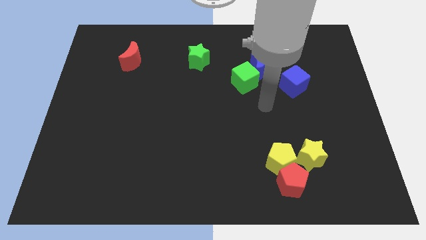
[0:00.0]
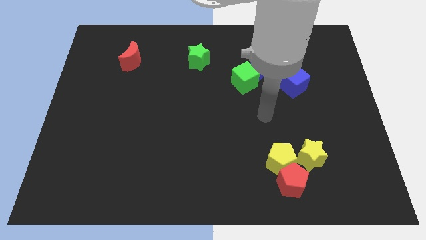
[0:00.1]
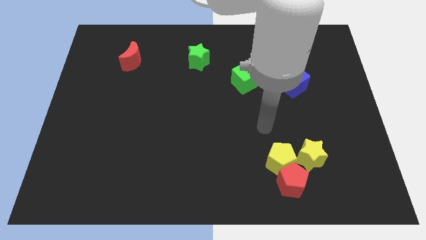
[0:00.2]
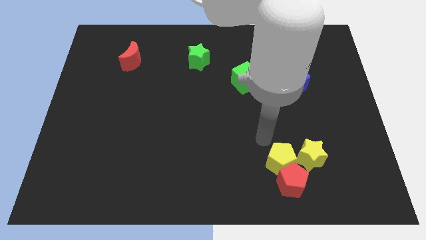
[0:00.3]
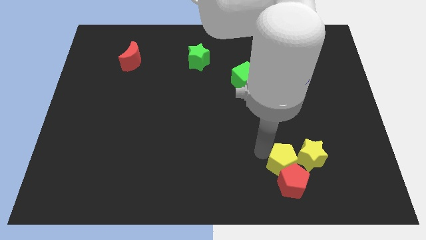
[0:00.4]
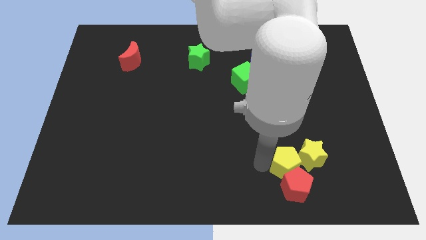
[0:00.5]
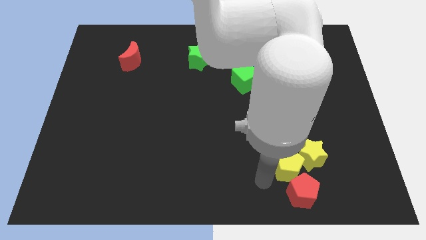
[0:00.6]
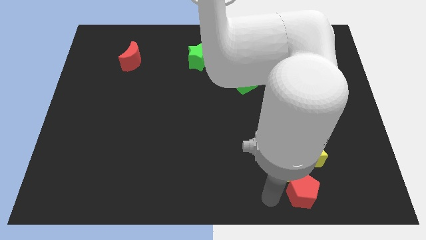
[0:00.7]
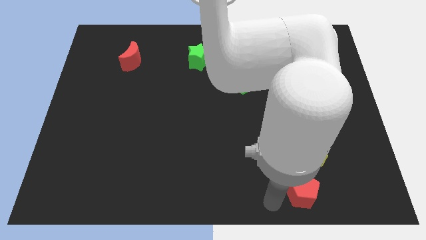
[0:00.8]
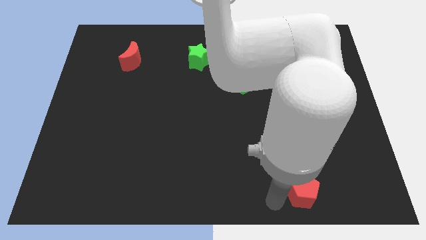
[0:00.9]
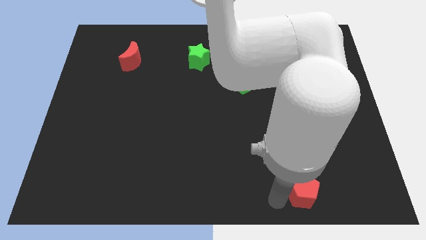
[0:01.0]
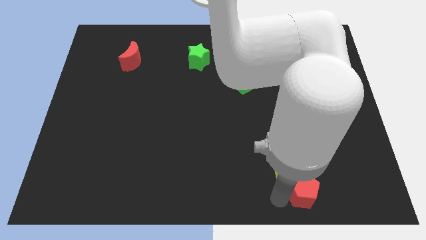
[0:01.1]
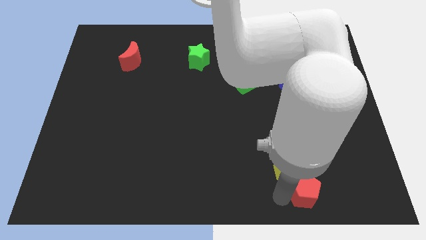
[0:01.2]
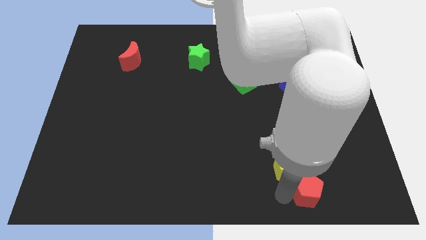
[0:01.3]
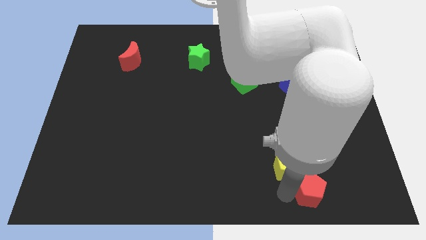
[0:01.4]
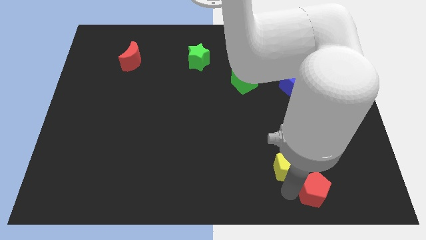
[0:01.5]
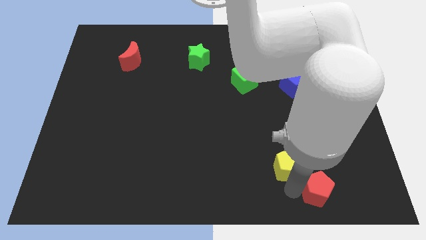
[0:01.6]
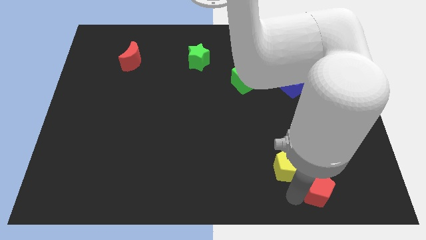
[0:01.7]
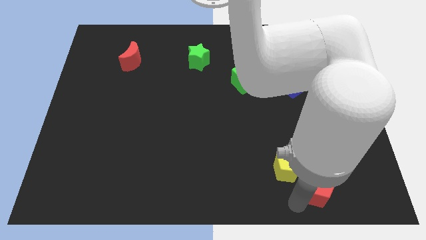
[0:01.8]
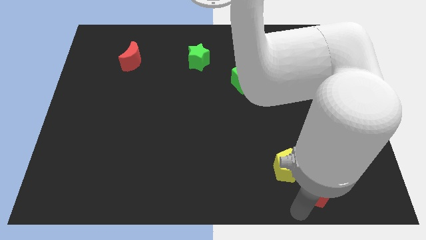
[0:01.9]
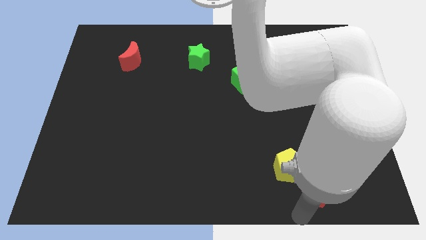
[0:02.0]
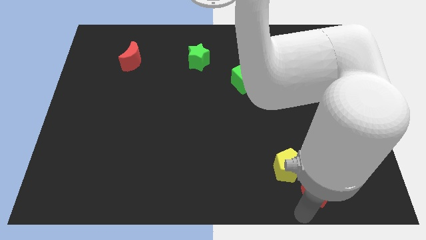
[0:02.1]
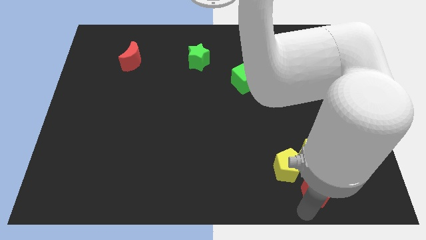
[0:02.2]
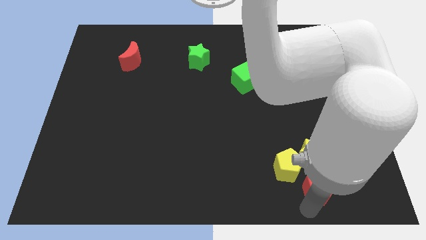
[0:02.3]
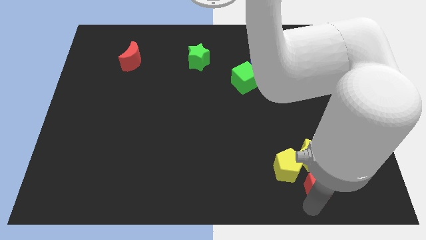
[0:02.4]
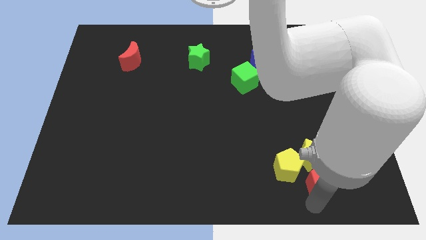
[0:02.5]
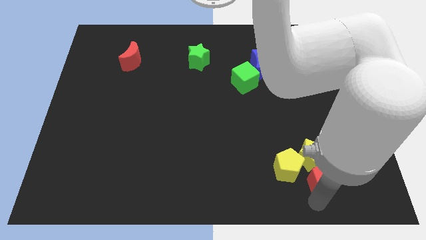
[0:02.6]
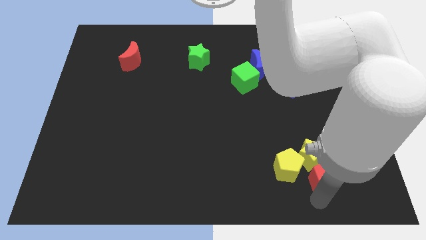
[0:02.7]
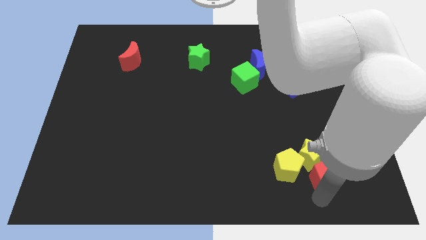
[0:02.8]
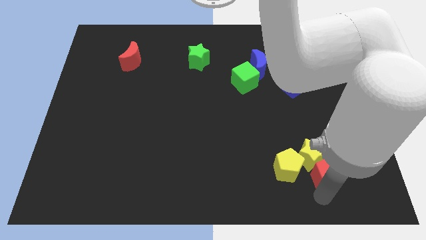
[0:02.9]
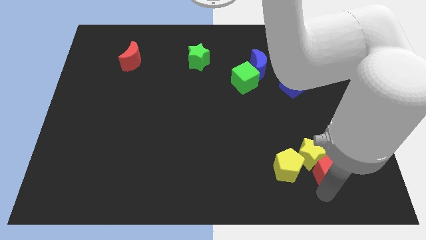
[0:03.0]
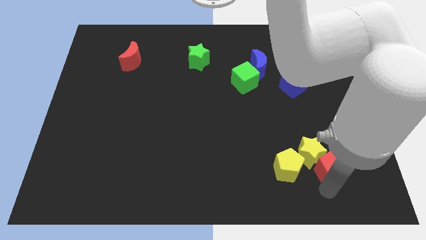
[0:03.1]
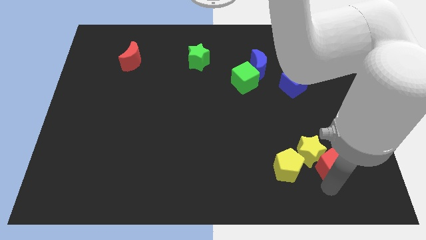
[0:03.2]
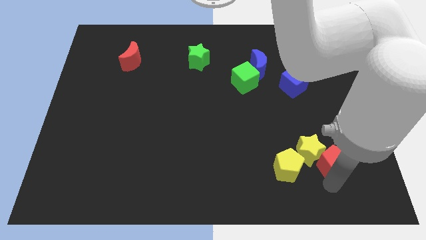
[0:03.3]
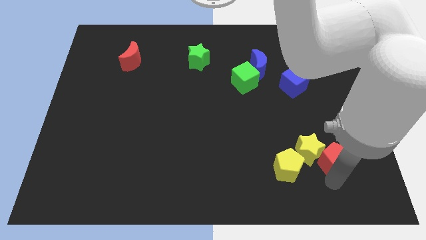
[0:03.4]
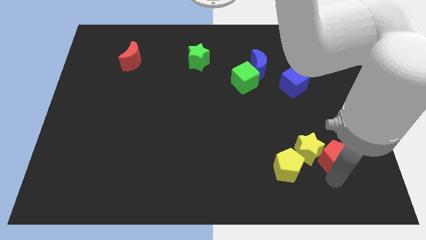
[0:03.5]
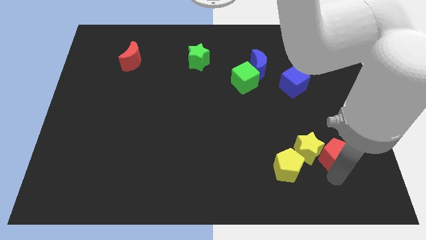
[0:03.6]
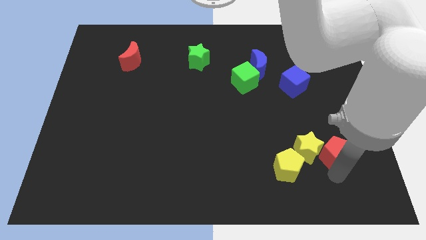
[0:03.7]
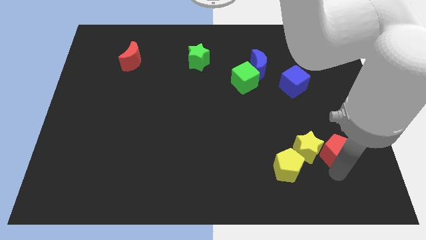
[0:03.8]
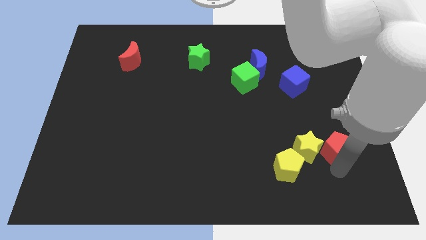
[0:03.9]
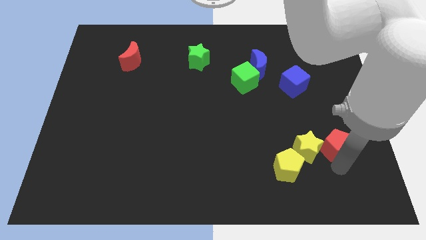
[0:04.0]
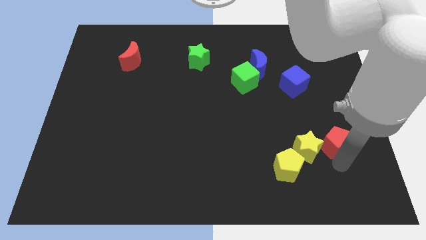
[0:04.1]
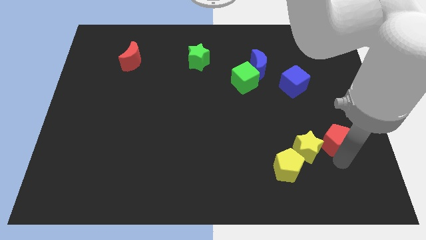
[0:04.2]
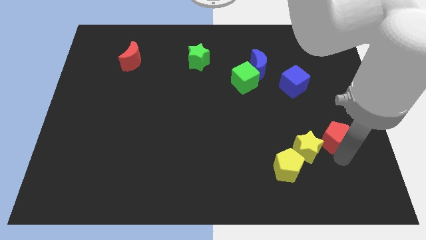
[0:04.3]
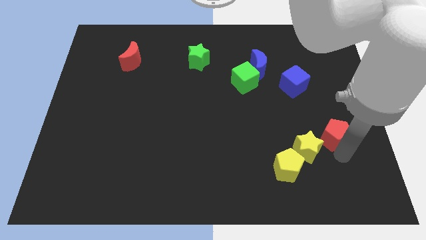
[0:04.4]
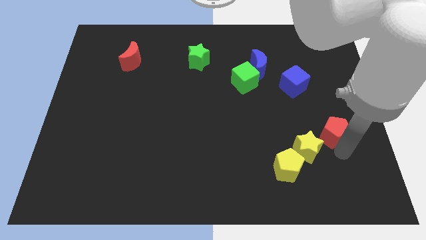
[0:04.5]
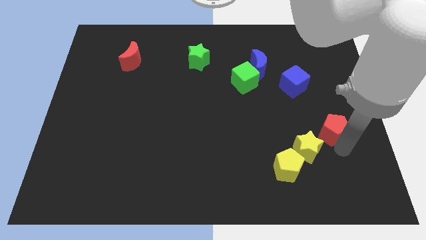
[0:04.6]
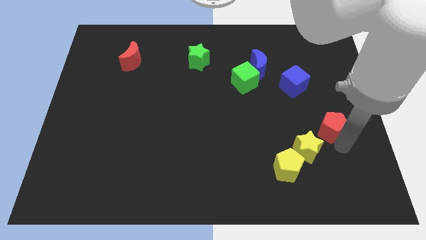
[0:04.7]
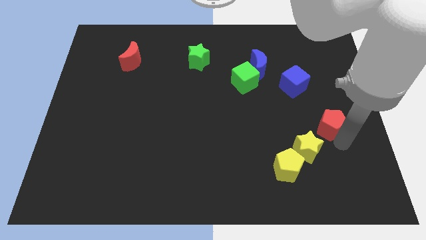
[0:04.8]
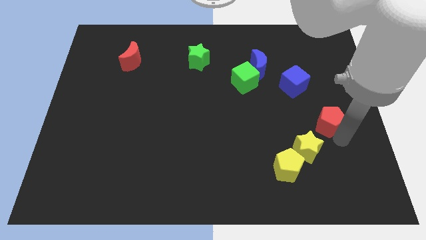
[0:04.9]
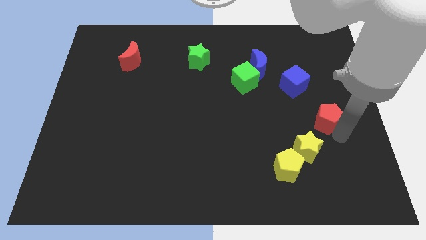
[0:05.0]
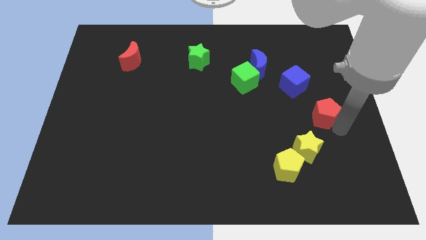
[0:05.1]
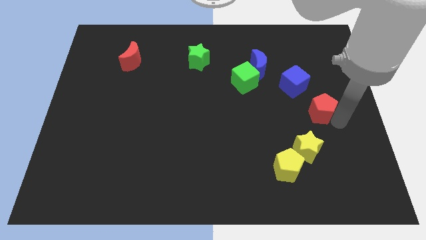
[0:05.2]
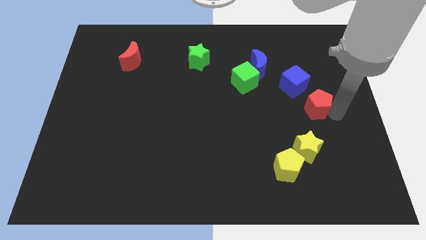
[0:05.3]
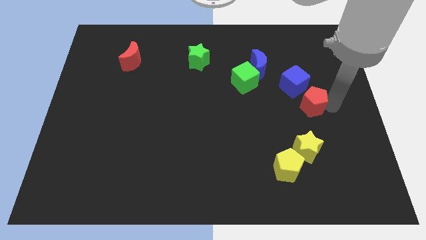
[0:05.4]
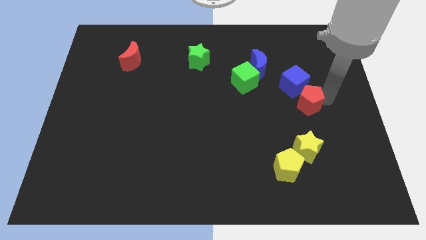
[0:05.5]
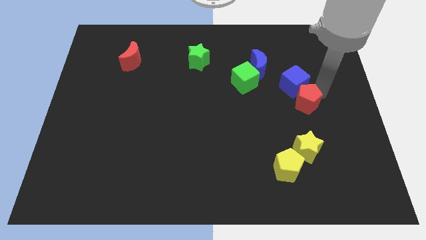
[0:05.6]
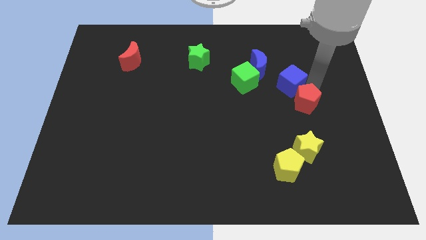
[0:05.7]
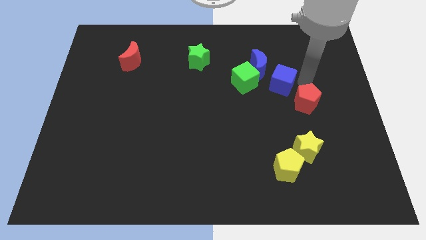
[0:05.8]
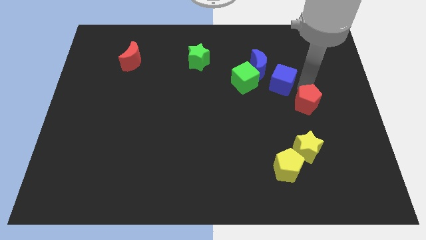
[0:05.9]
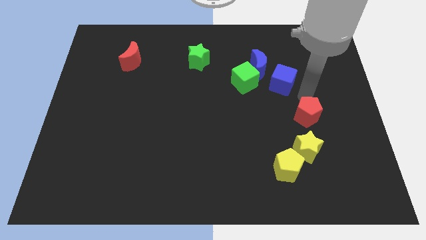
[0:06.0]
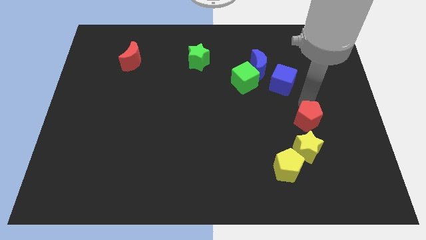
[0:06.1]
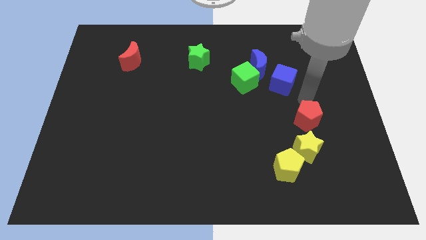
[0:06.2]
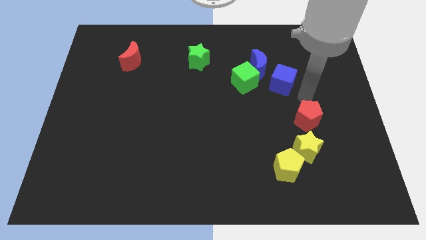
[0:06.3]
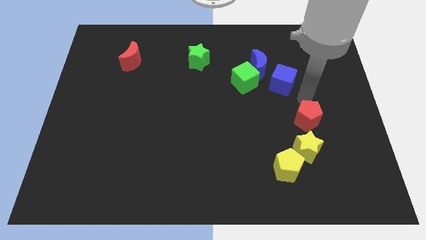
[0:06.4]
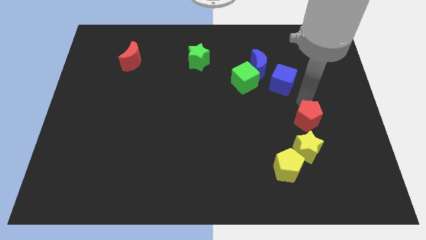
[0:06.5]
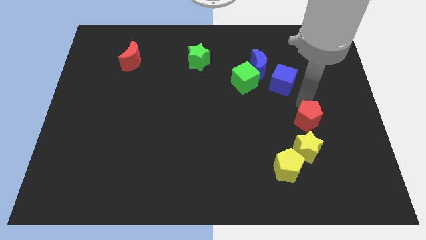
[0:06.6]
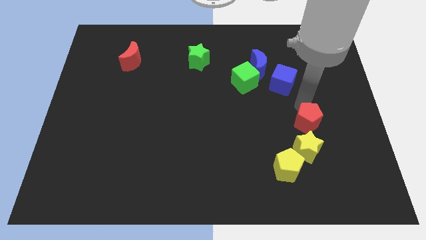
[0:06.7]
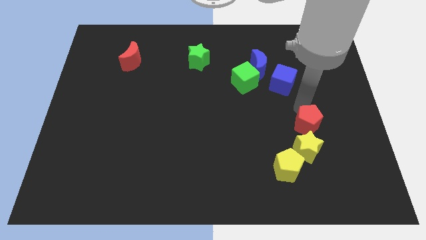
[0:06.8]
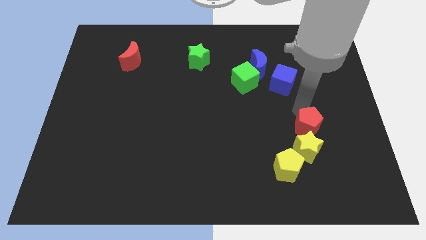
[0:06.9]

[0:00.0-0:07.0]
slide the red pentagon diagonally up and to the right of the yellow pentagon

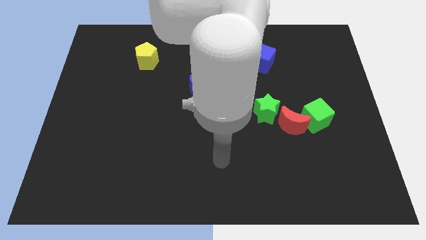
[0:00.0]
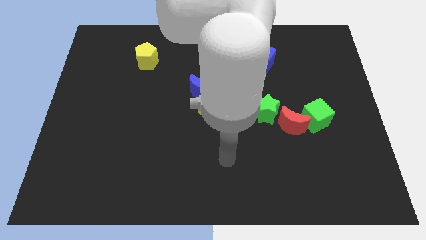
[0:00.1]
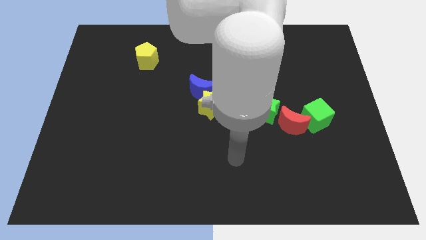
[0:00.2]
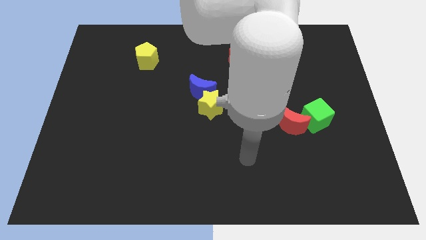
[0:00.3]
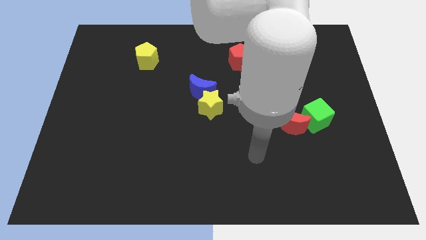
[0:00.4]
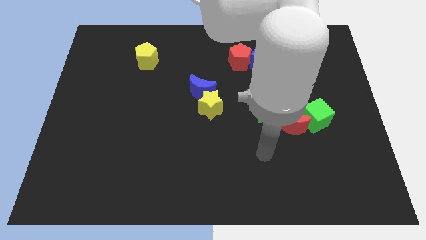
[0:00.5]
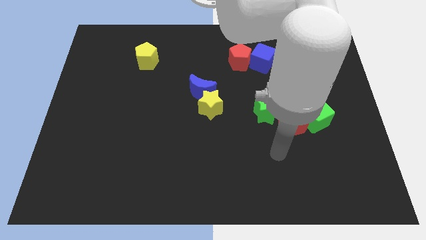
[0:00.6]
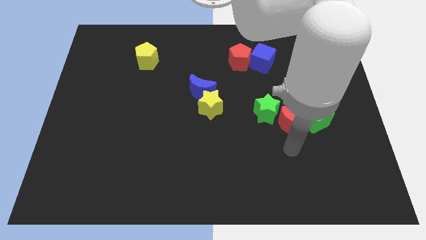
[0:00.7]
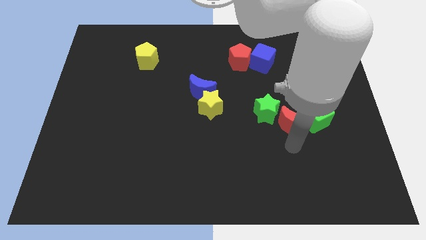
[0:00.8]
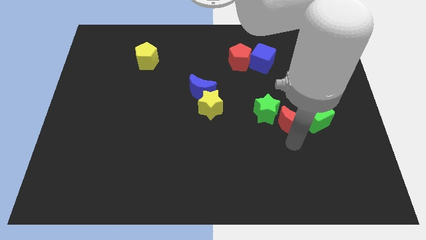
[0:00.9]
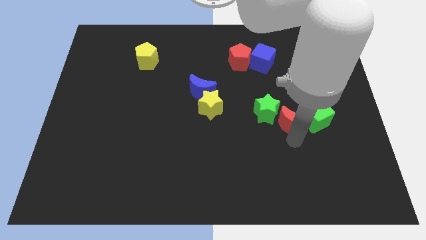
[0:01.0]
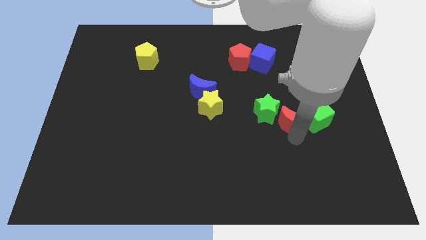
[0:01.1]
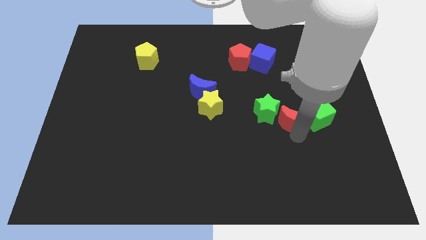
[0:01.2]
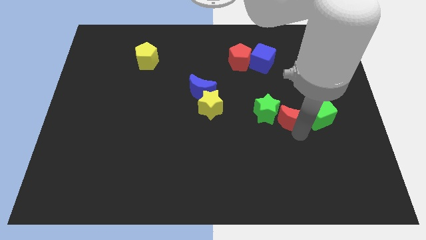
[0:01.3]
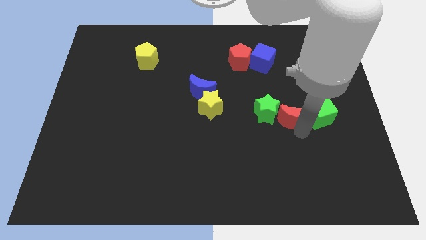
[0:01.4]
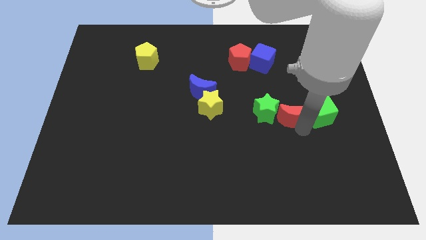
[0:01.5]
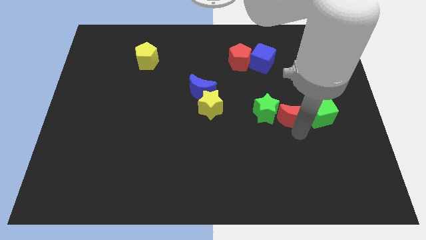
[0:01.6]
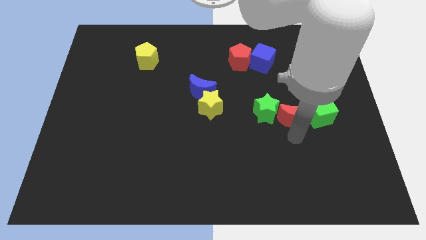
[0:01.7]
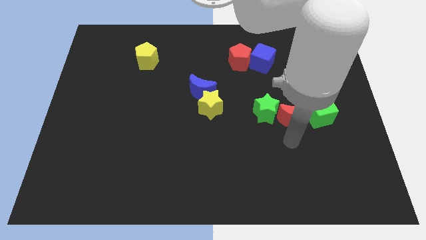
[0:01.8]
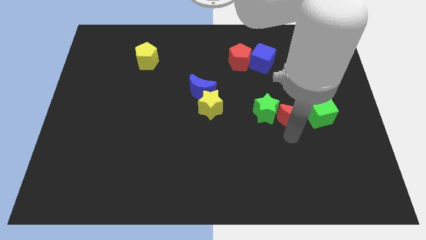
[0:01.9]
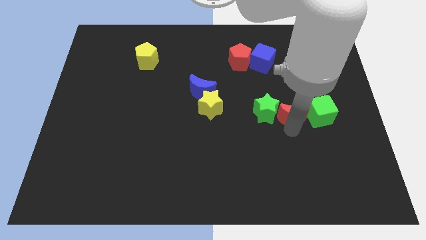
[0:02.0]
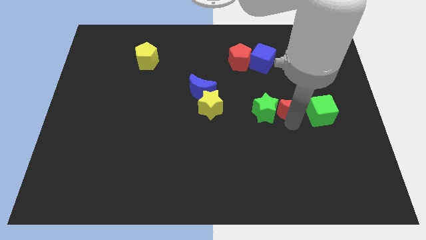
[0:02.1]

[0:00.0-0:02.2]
put the red moon to the top left of the green cube
